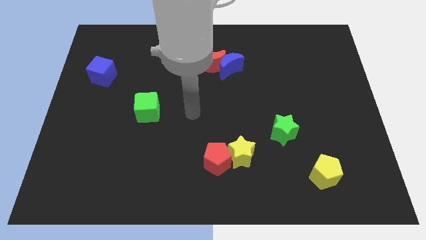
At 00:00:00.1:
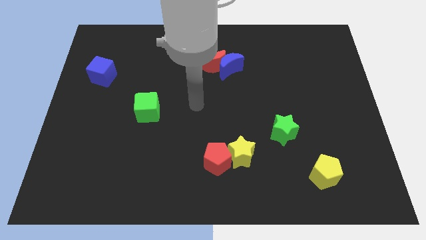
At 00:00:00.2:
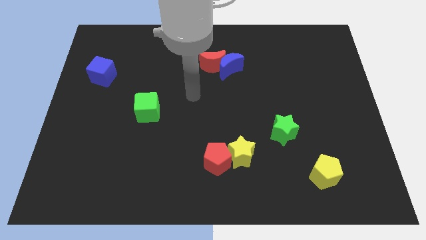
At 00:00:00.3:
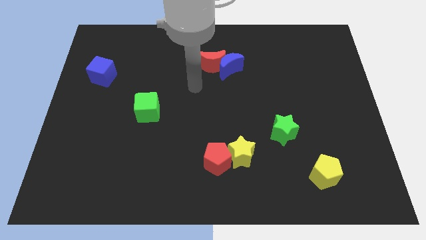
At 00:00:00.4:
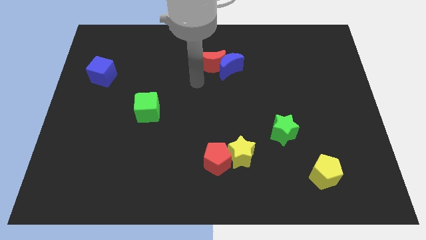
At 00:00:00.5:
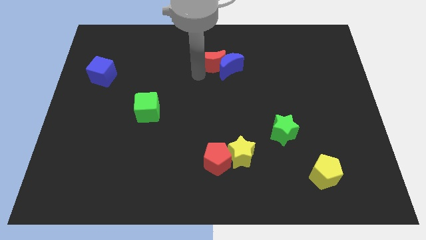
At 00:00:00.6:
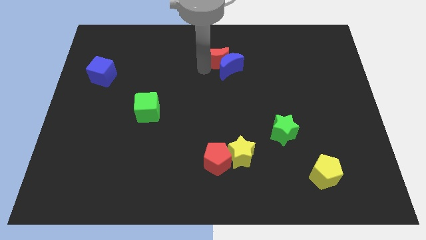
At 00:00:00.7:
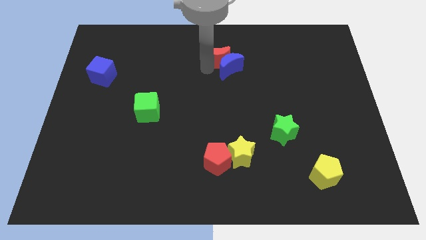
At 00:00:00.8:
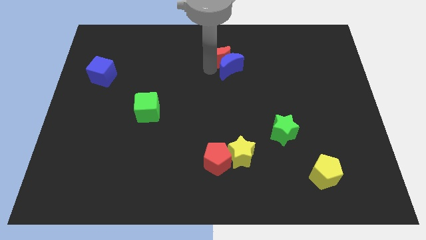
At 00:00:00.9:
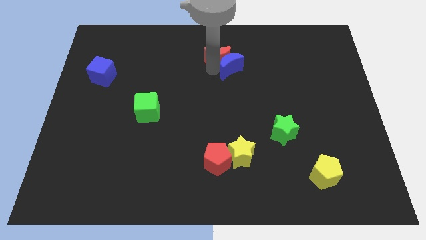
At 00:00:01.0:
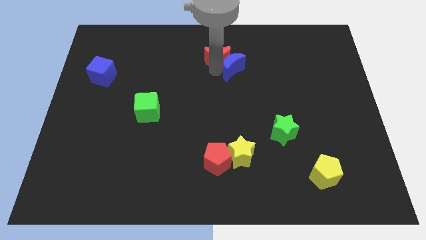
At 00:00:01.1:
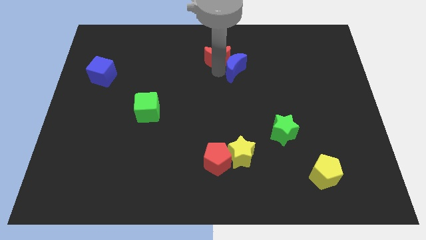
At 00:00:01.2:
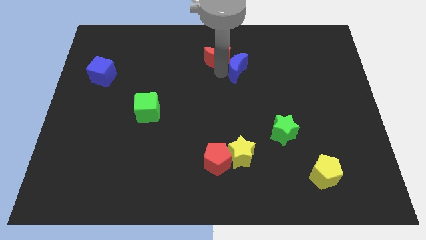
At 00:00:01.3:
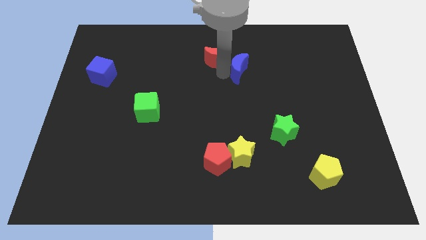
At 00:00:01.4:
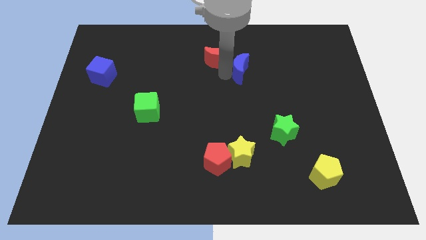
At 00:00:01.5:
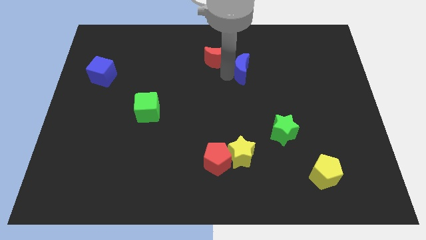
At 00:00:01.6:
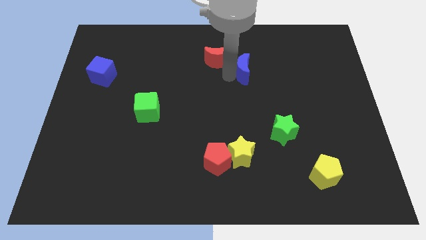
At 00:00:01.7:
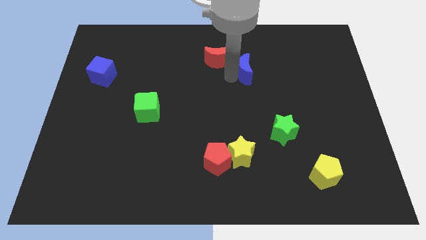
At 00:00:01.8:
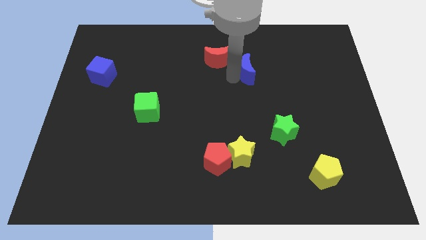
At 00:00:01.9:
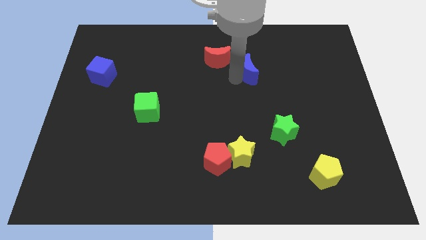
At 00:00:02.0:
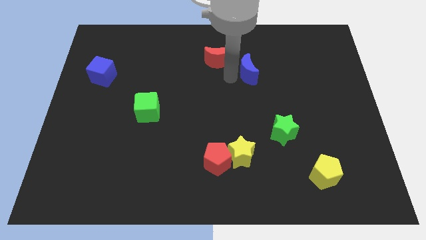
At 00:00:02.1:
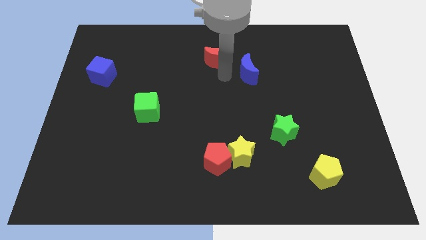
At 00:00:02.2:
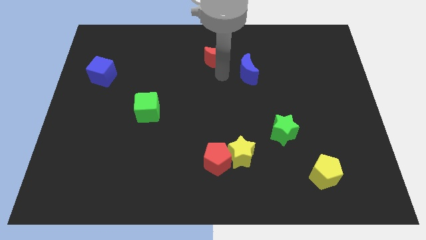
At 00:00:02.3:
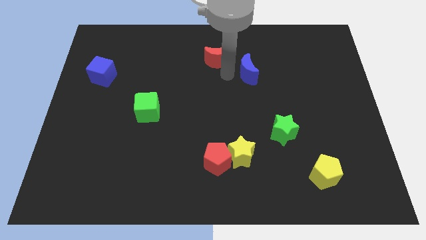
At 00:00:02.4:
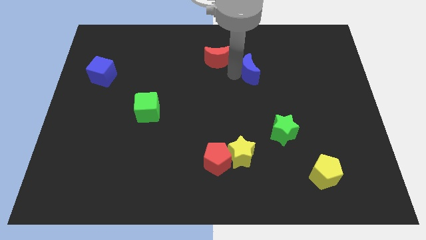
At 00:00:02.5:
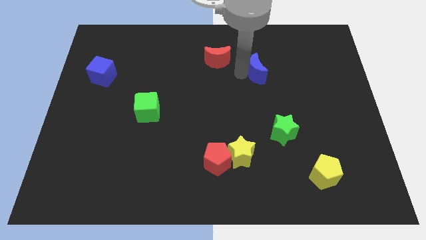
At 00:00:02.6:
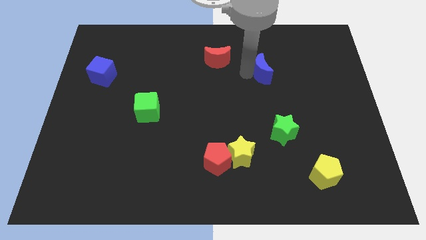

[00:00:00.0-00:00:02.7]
move the blue moon somewhat to the right

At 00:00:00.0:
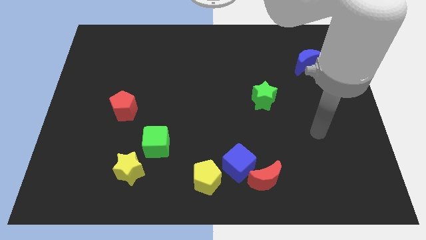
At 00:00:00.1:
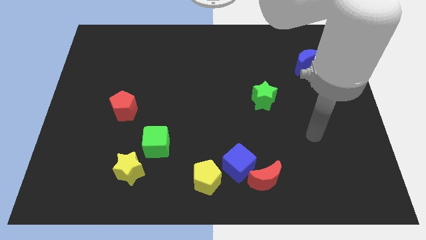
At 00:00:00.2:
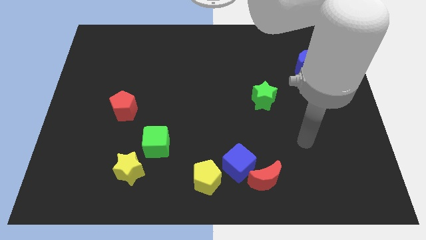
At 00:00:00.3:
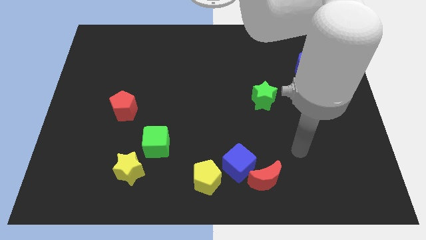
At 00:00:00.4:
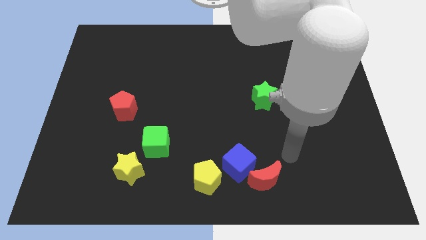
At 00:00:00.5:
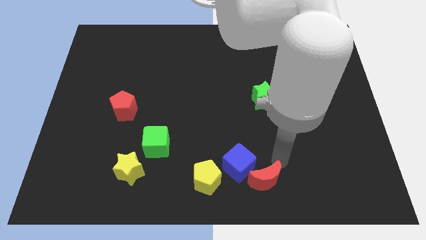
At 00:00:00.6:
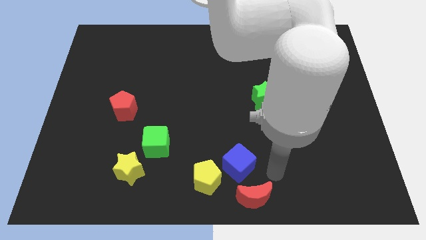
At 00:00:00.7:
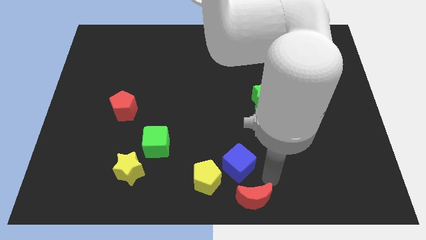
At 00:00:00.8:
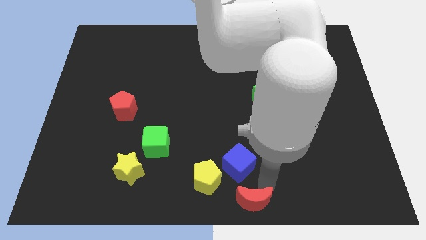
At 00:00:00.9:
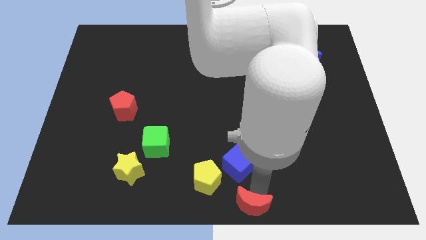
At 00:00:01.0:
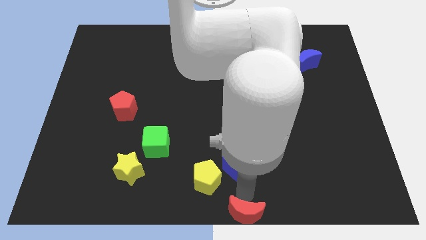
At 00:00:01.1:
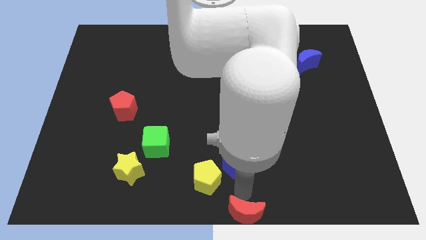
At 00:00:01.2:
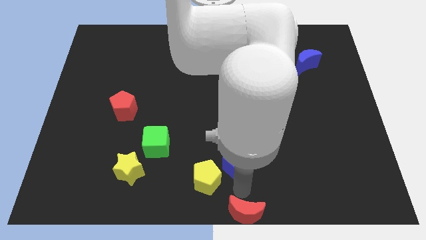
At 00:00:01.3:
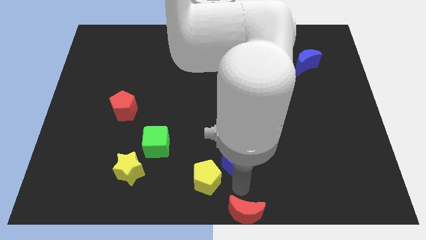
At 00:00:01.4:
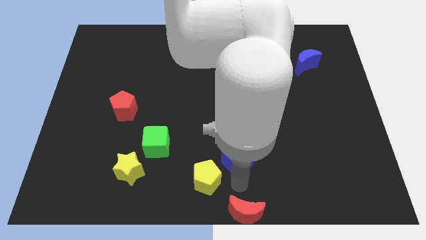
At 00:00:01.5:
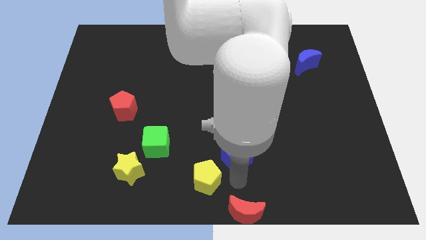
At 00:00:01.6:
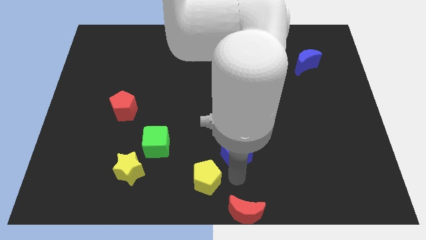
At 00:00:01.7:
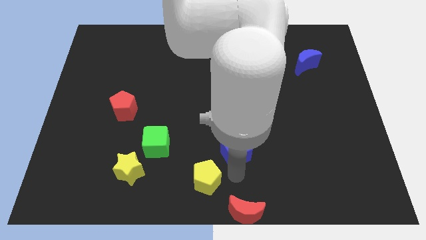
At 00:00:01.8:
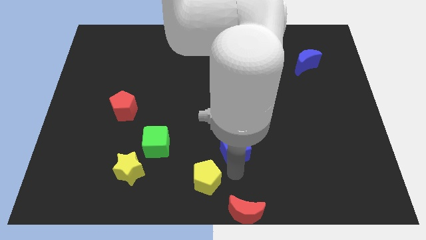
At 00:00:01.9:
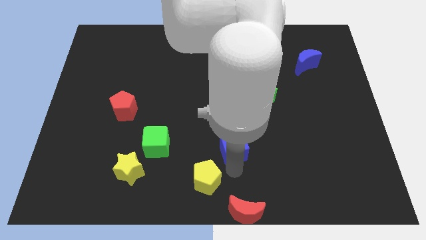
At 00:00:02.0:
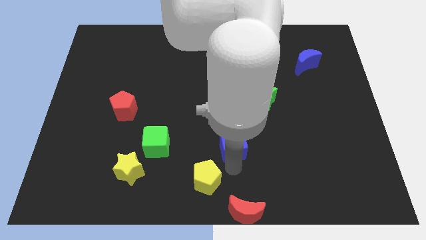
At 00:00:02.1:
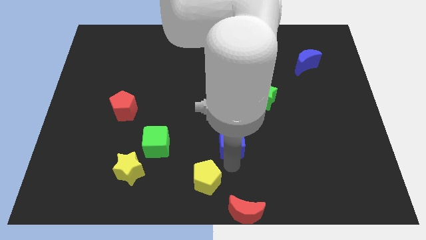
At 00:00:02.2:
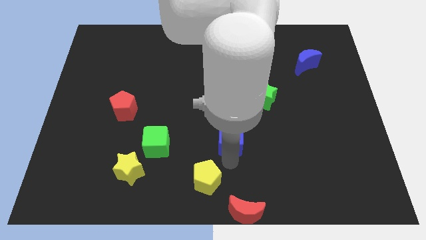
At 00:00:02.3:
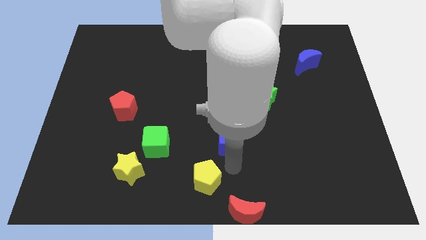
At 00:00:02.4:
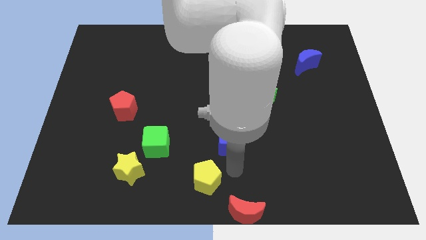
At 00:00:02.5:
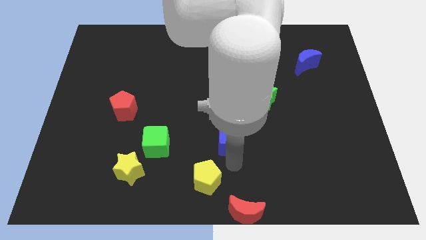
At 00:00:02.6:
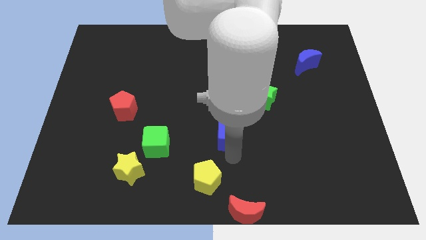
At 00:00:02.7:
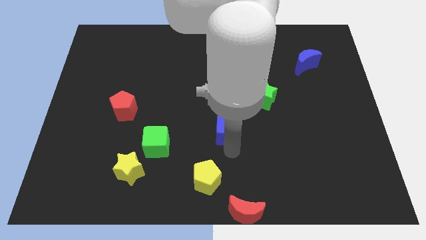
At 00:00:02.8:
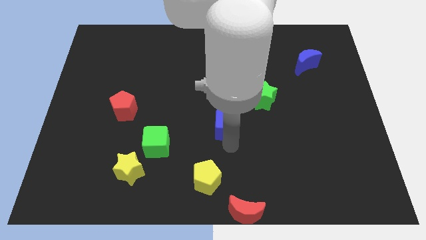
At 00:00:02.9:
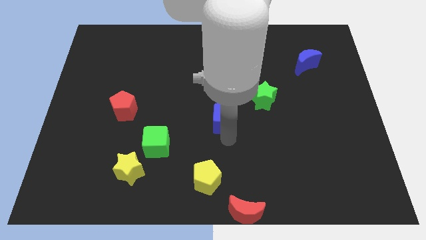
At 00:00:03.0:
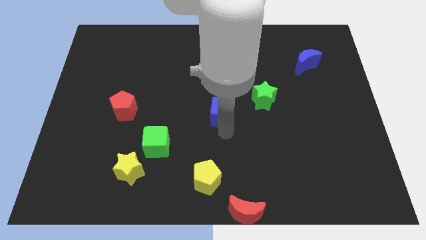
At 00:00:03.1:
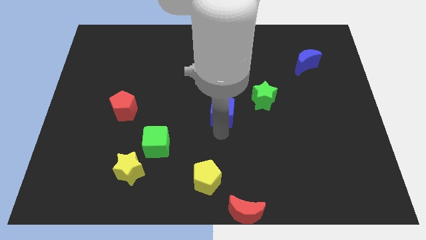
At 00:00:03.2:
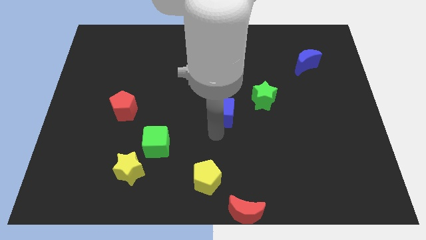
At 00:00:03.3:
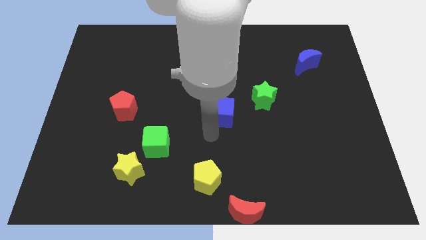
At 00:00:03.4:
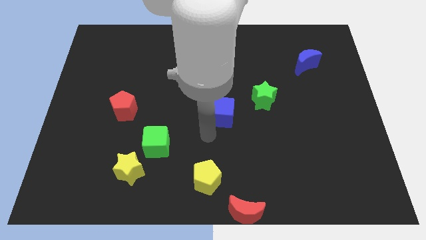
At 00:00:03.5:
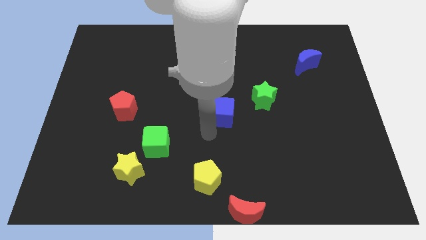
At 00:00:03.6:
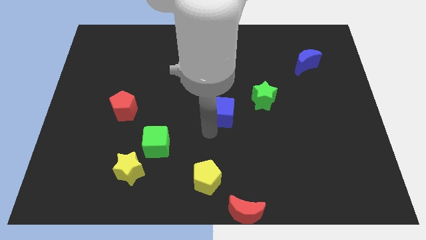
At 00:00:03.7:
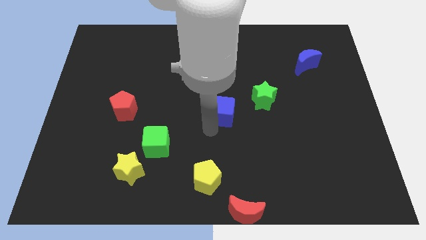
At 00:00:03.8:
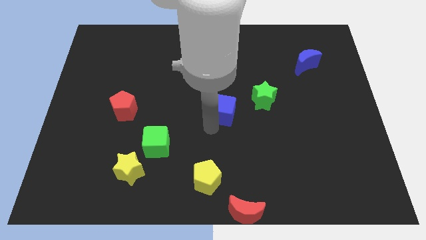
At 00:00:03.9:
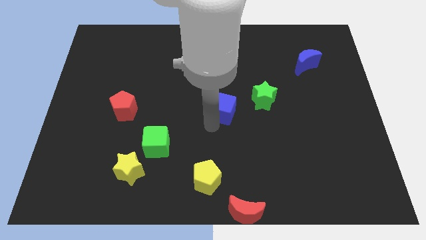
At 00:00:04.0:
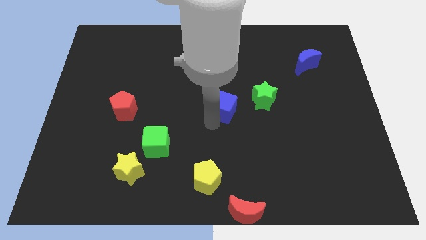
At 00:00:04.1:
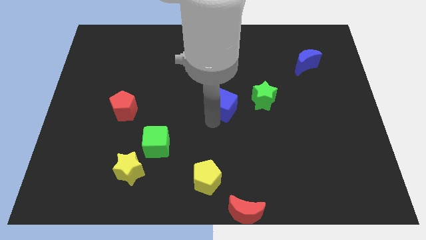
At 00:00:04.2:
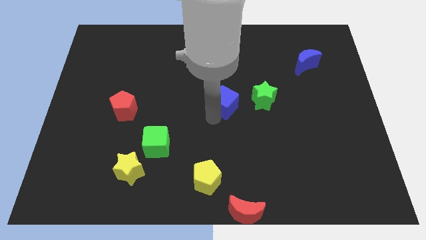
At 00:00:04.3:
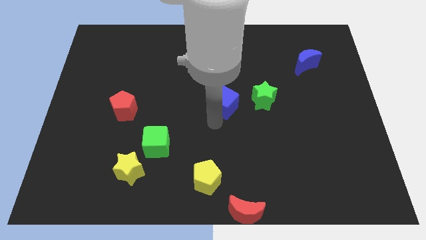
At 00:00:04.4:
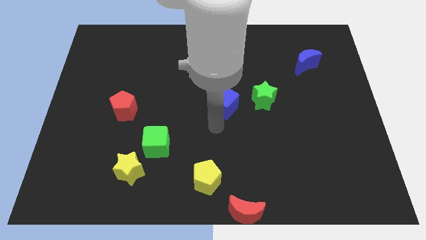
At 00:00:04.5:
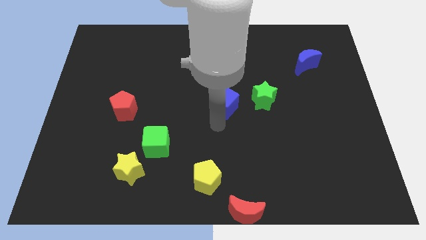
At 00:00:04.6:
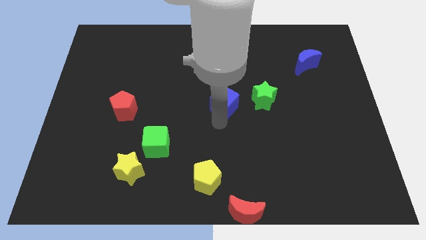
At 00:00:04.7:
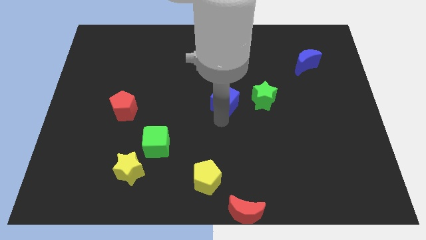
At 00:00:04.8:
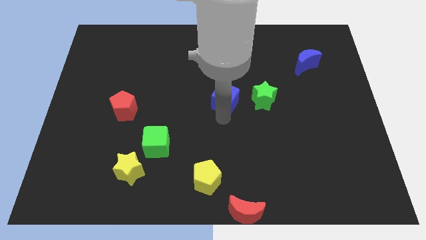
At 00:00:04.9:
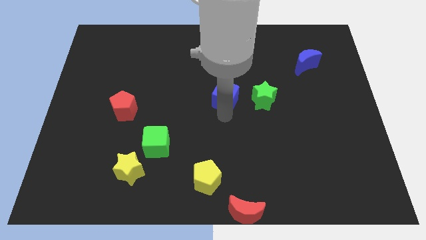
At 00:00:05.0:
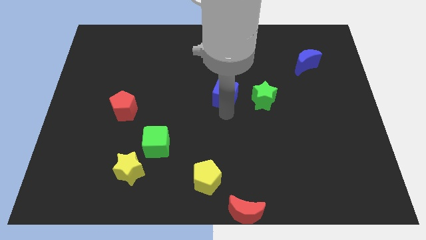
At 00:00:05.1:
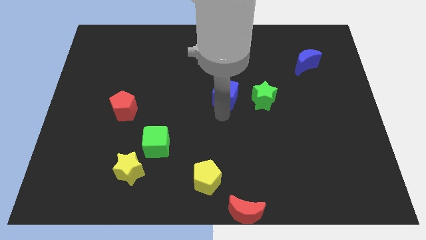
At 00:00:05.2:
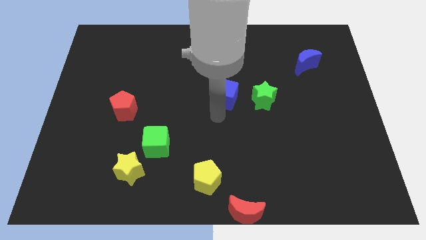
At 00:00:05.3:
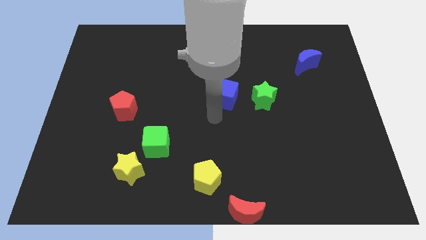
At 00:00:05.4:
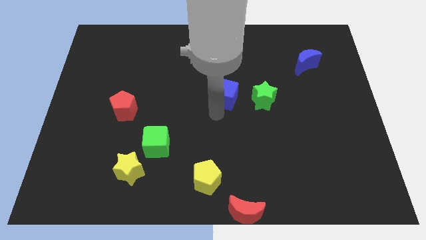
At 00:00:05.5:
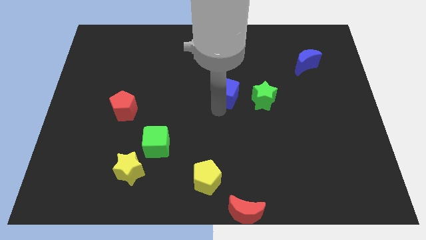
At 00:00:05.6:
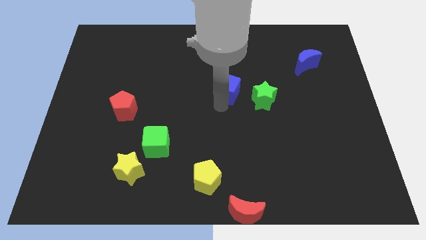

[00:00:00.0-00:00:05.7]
push the blue cube up
